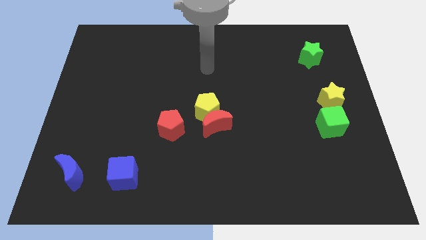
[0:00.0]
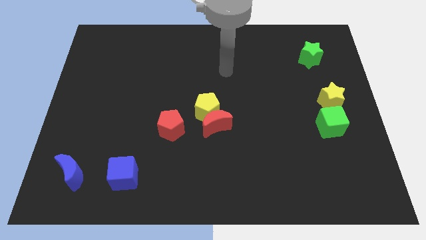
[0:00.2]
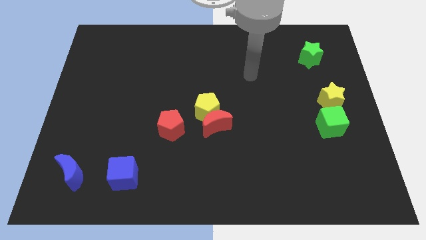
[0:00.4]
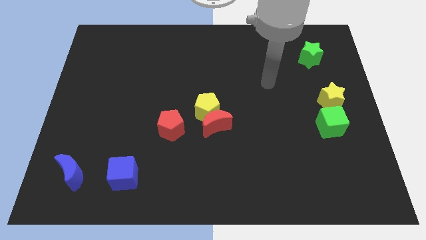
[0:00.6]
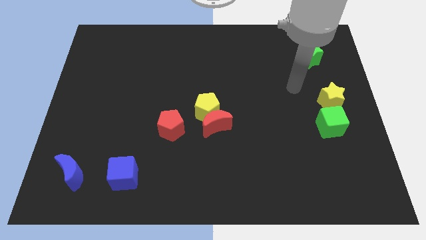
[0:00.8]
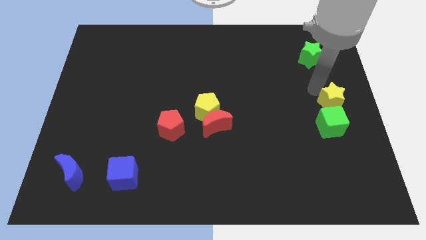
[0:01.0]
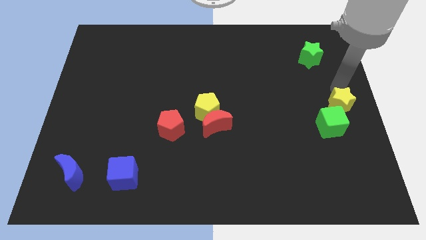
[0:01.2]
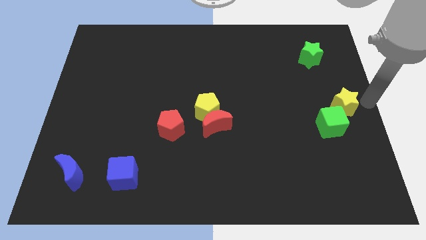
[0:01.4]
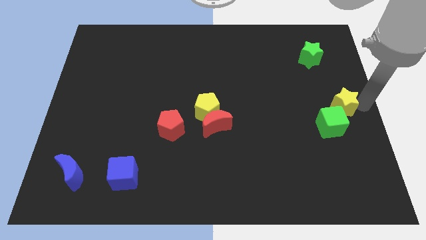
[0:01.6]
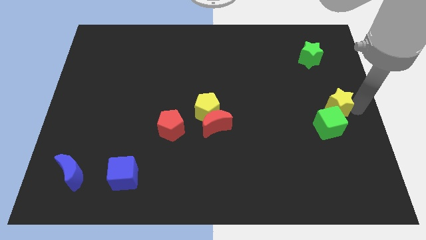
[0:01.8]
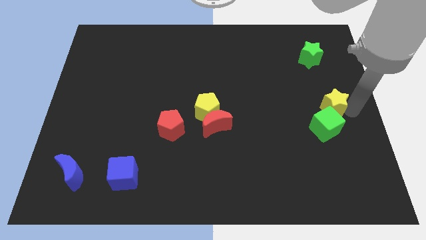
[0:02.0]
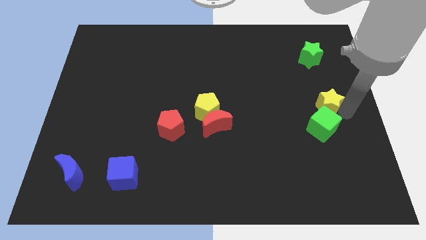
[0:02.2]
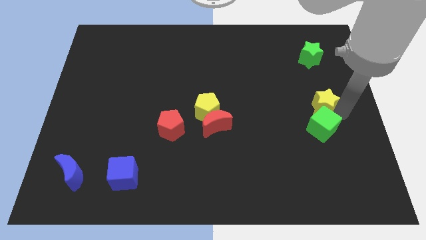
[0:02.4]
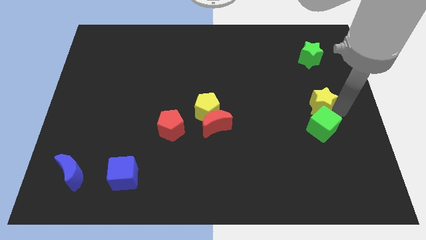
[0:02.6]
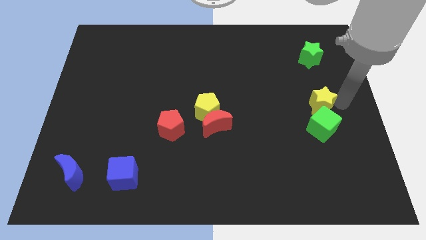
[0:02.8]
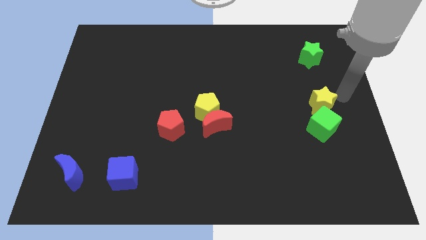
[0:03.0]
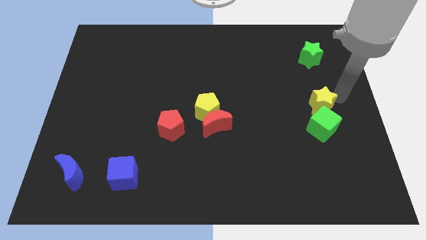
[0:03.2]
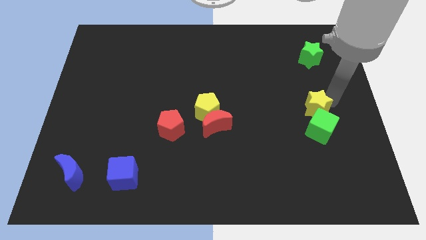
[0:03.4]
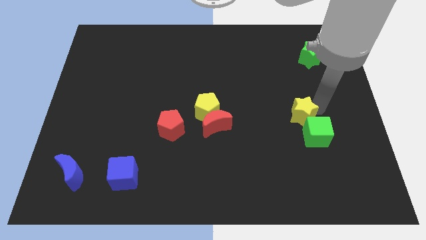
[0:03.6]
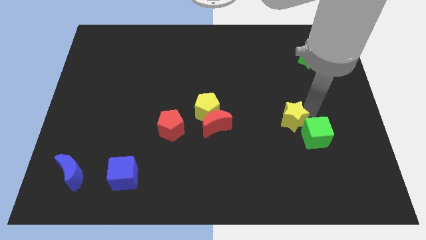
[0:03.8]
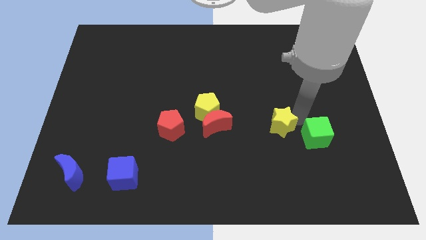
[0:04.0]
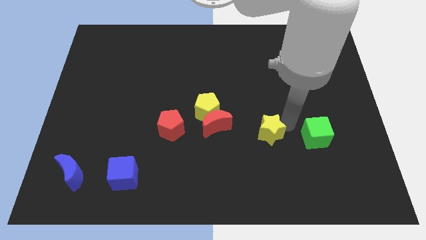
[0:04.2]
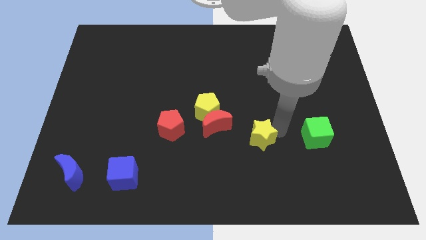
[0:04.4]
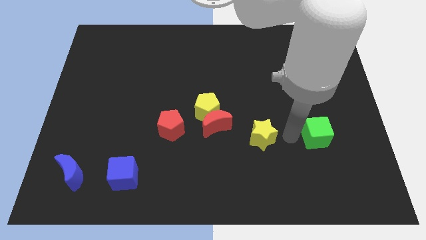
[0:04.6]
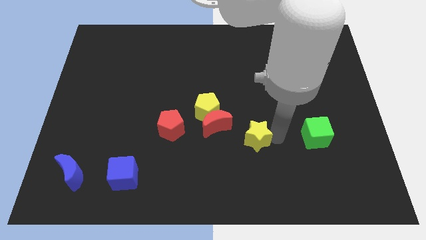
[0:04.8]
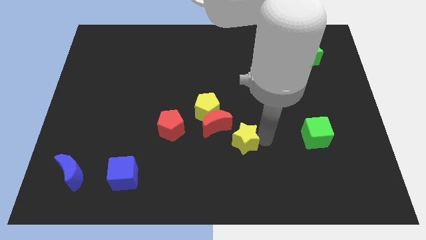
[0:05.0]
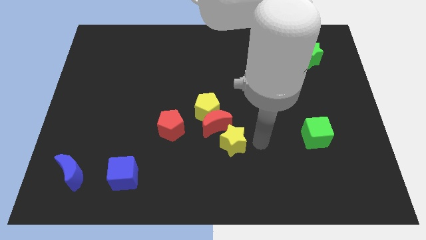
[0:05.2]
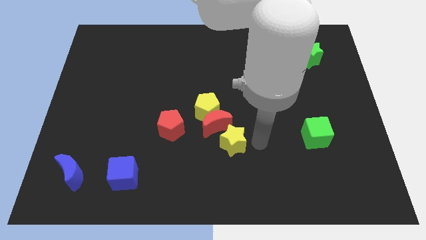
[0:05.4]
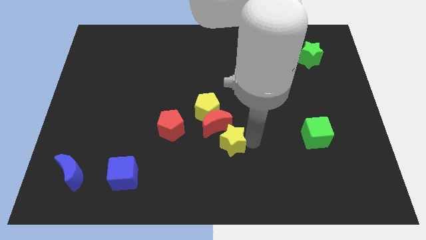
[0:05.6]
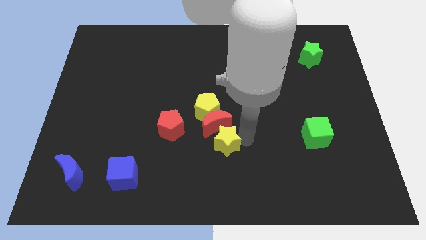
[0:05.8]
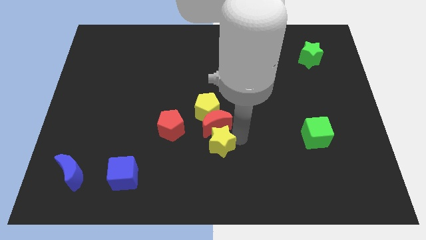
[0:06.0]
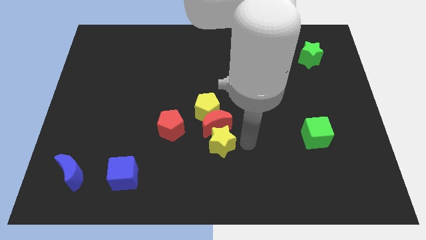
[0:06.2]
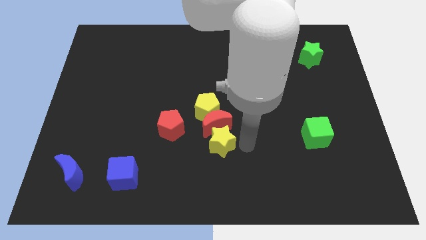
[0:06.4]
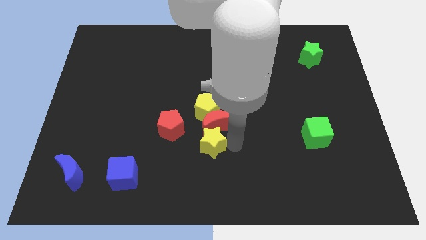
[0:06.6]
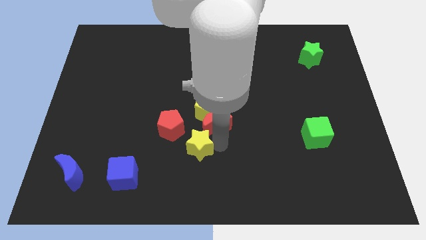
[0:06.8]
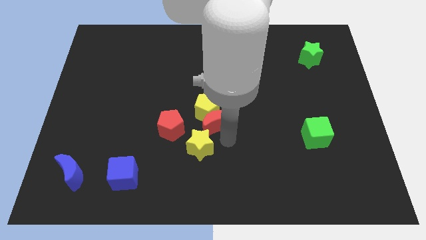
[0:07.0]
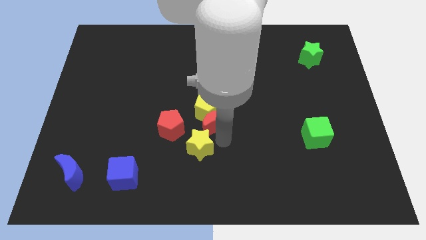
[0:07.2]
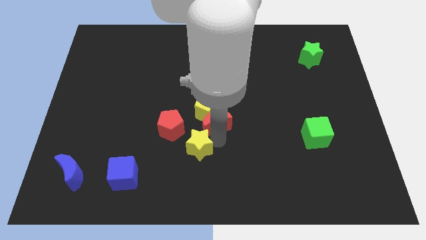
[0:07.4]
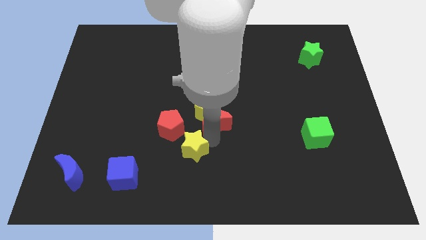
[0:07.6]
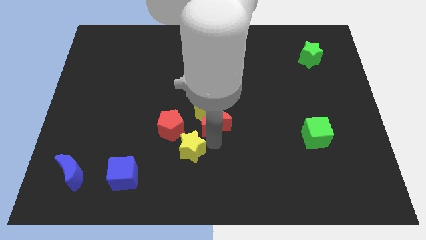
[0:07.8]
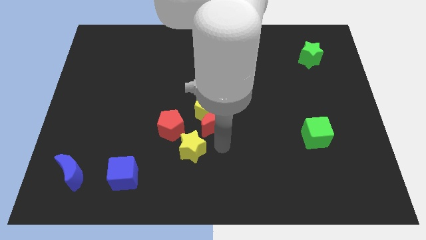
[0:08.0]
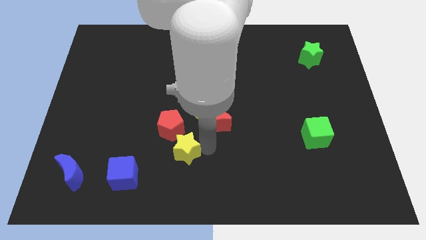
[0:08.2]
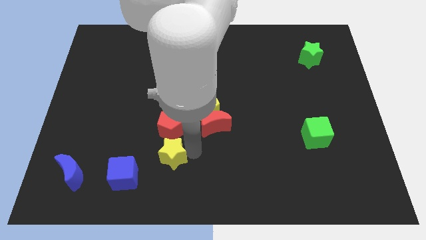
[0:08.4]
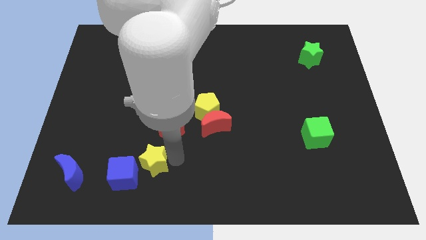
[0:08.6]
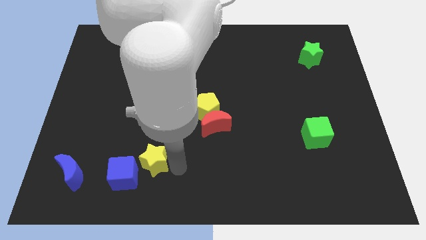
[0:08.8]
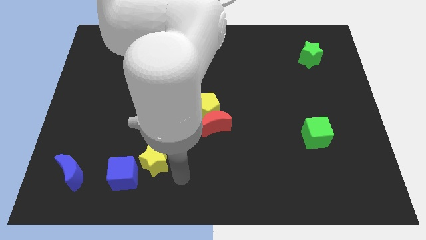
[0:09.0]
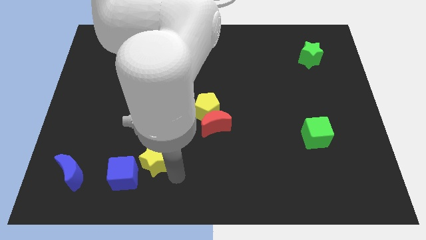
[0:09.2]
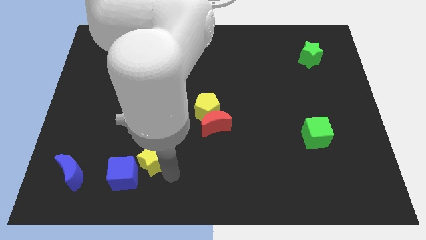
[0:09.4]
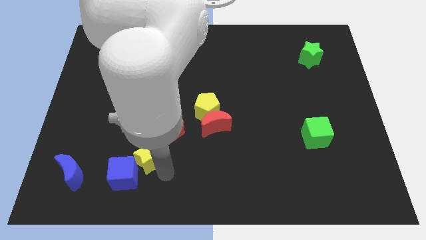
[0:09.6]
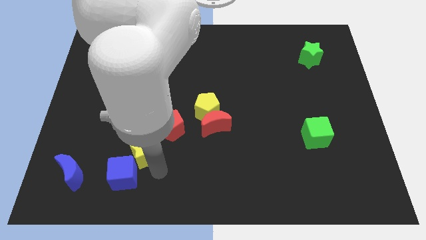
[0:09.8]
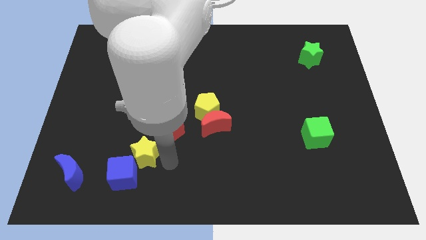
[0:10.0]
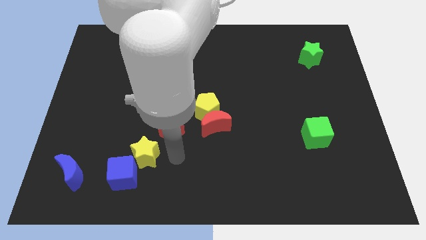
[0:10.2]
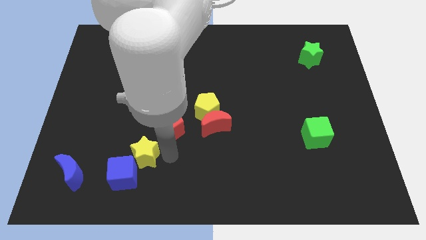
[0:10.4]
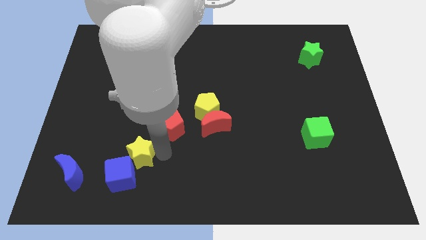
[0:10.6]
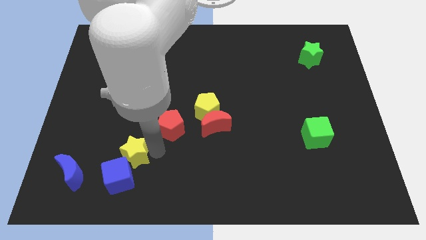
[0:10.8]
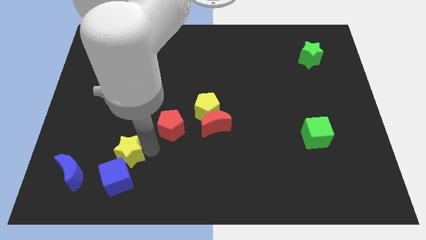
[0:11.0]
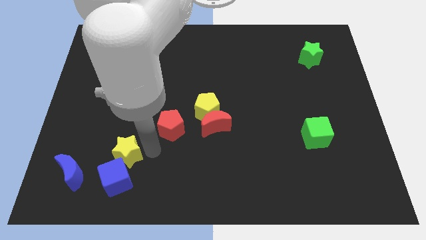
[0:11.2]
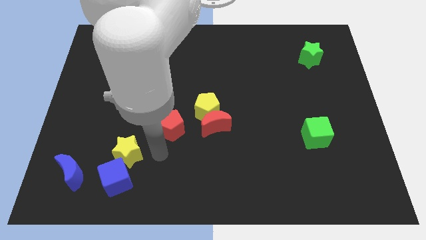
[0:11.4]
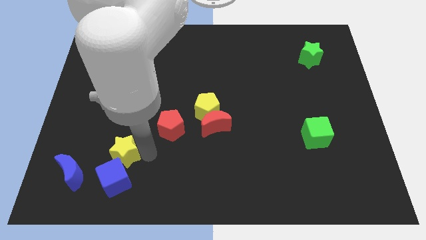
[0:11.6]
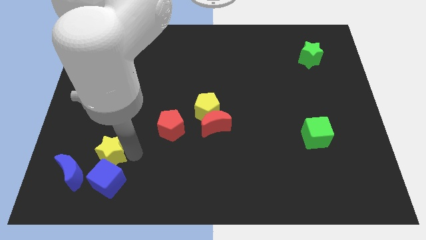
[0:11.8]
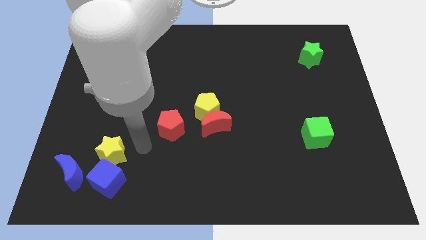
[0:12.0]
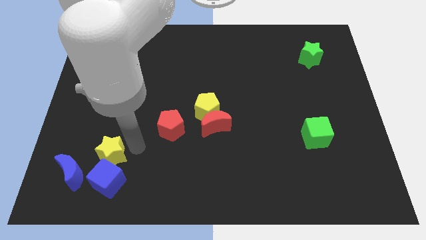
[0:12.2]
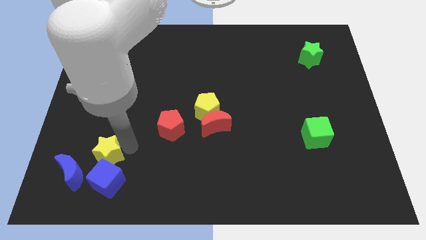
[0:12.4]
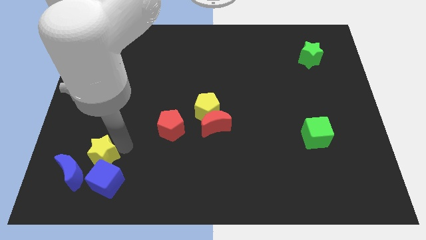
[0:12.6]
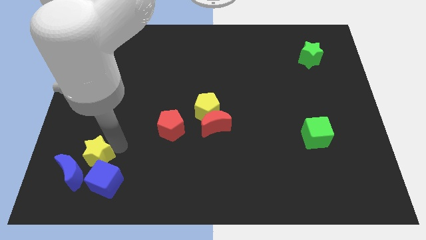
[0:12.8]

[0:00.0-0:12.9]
put the yellow star towards the blue moon

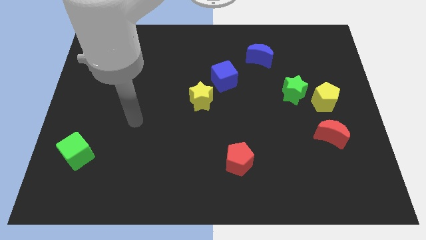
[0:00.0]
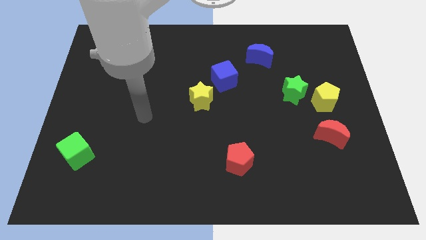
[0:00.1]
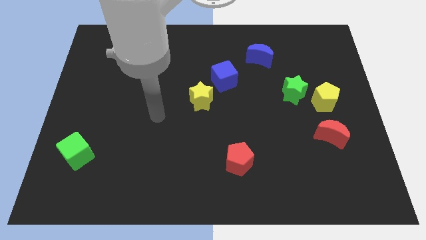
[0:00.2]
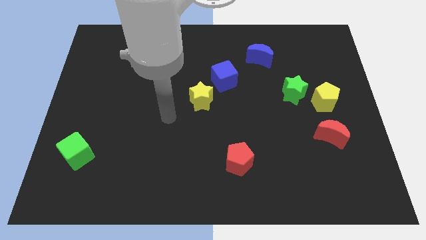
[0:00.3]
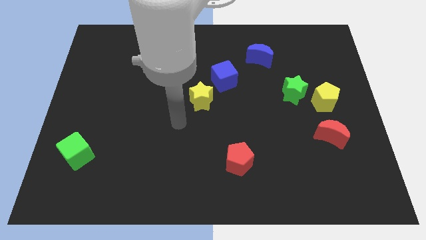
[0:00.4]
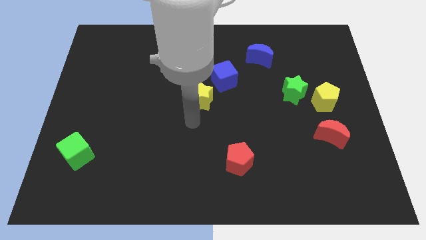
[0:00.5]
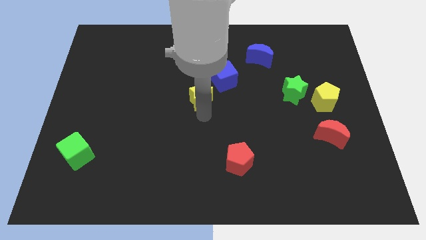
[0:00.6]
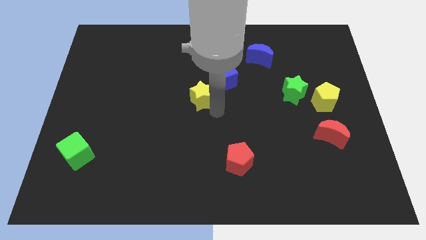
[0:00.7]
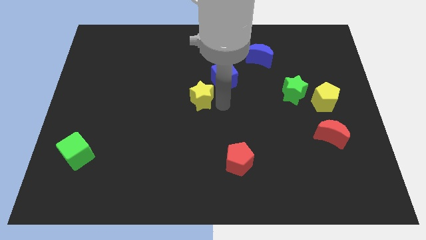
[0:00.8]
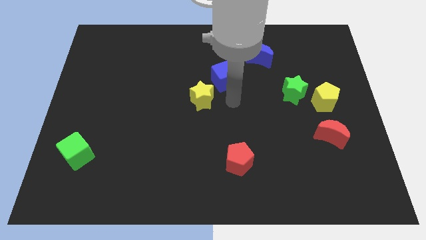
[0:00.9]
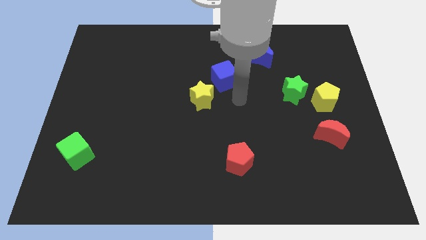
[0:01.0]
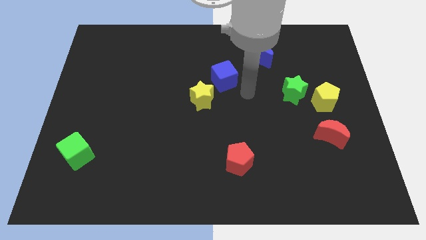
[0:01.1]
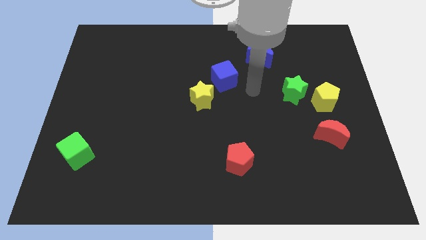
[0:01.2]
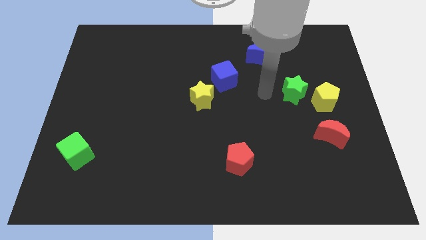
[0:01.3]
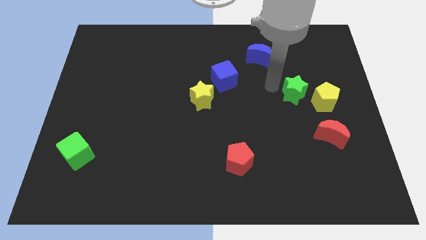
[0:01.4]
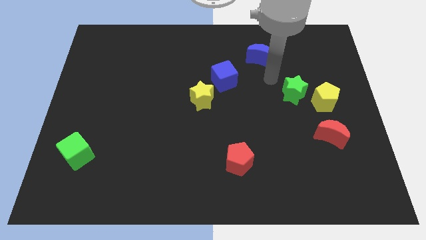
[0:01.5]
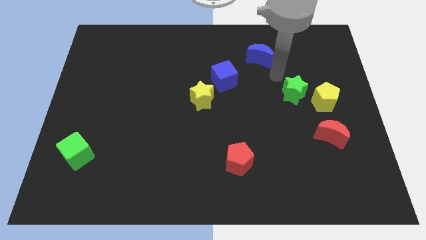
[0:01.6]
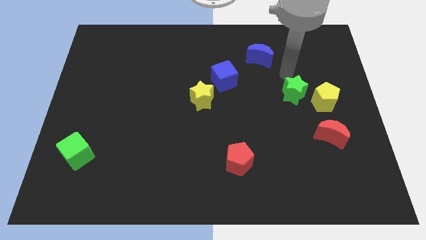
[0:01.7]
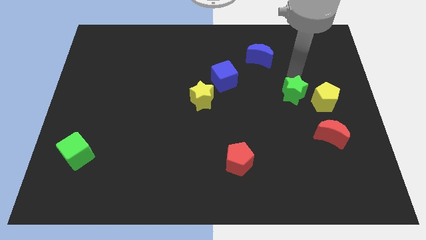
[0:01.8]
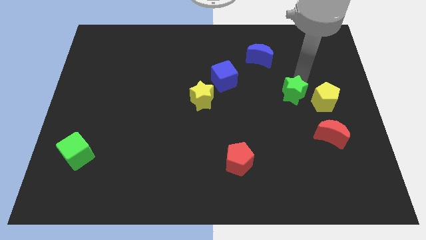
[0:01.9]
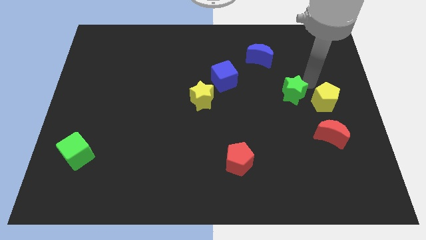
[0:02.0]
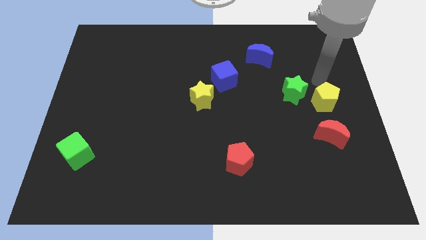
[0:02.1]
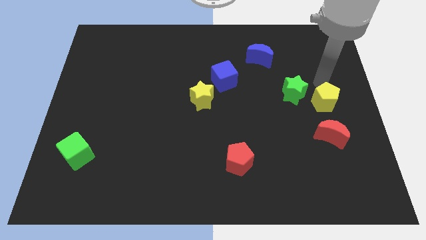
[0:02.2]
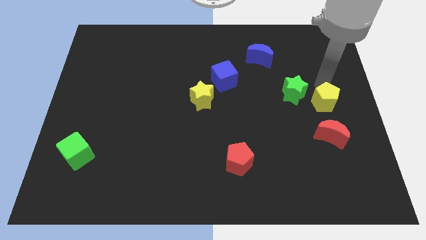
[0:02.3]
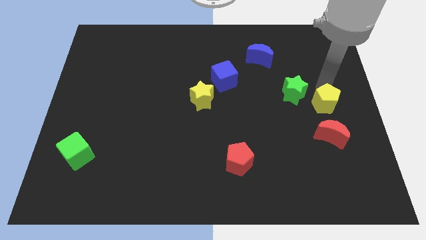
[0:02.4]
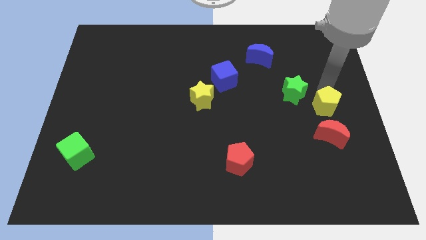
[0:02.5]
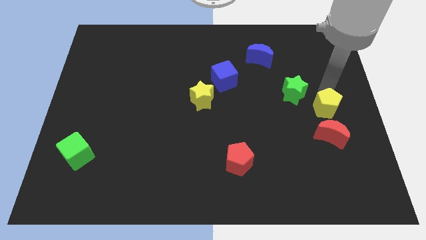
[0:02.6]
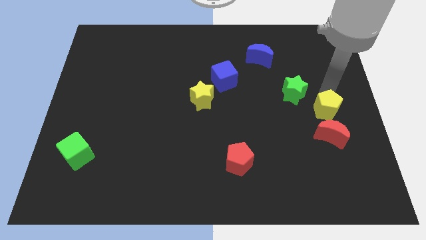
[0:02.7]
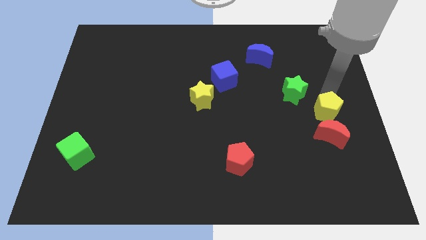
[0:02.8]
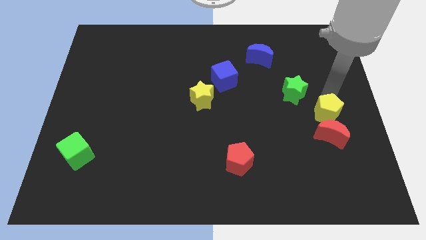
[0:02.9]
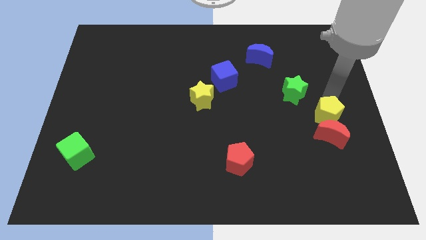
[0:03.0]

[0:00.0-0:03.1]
slide the yellow pentagon next to the red moon
